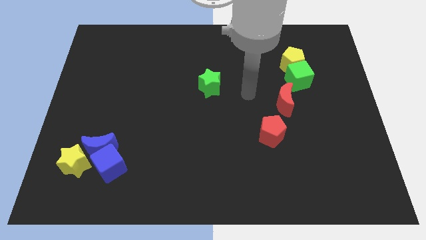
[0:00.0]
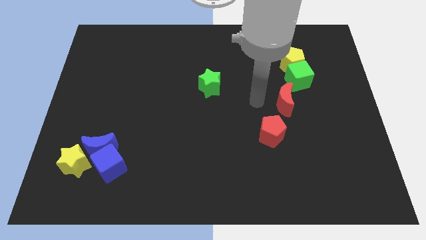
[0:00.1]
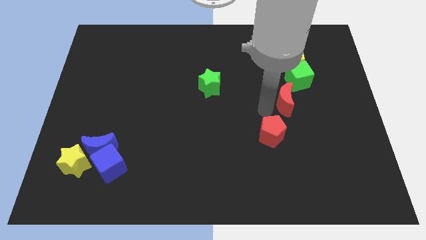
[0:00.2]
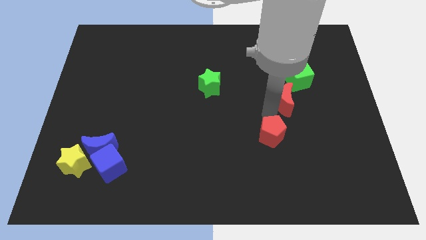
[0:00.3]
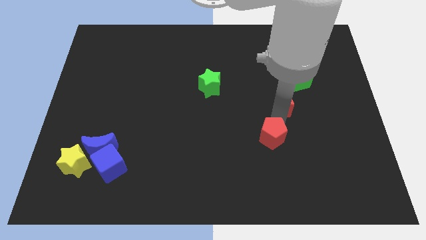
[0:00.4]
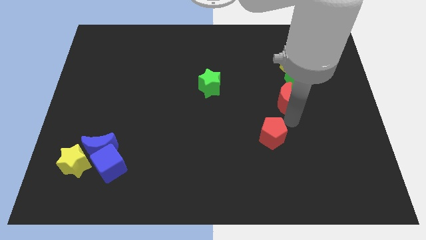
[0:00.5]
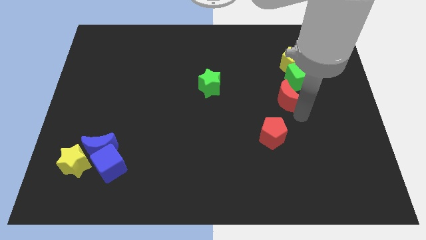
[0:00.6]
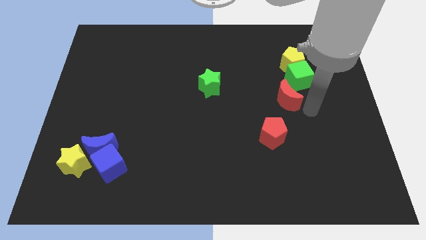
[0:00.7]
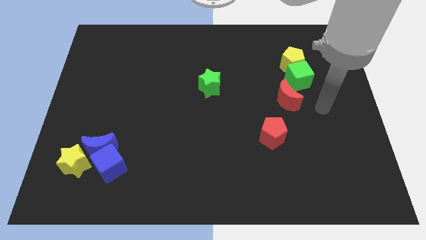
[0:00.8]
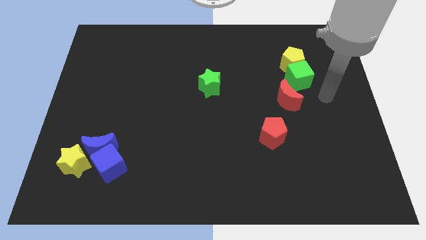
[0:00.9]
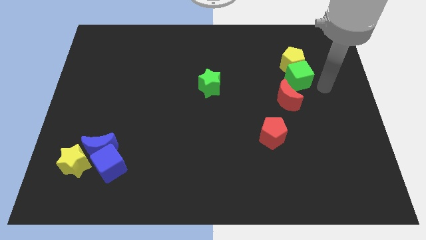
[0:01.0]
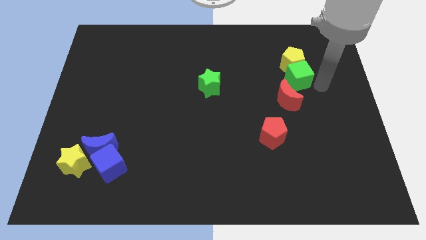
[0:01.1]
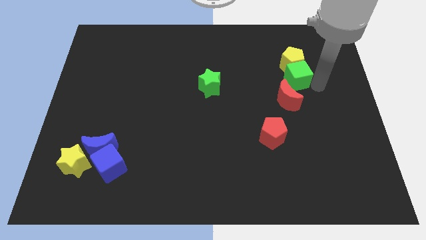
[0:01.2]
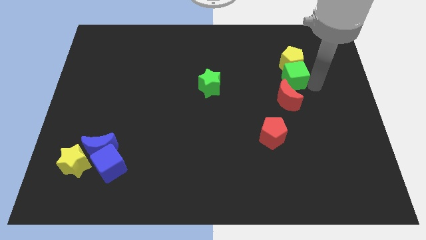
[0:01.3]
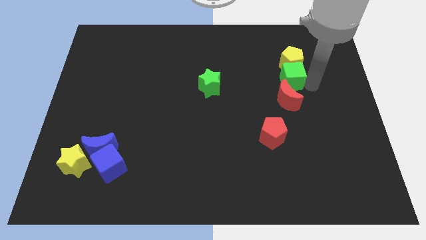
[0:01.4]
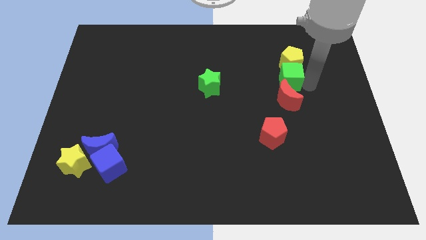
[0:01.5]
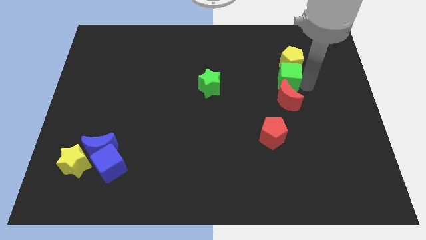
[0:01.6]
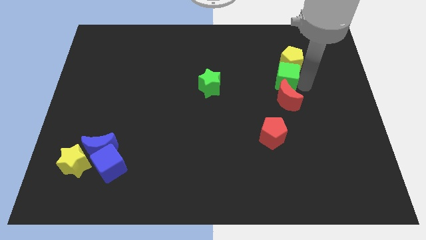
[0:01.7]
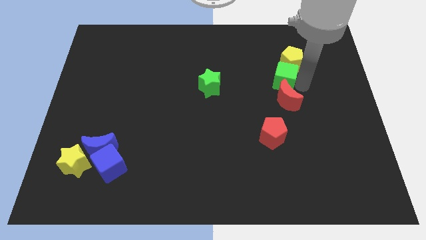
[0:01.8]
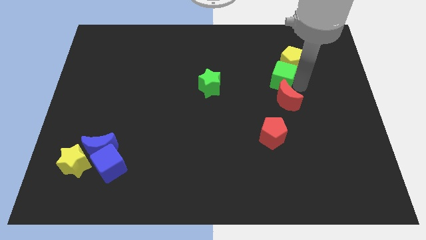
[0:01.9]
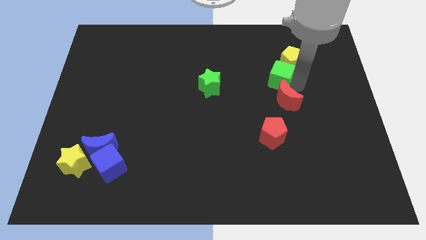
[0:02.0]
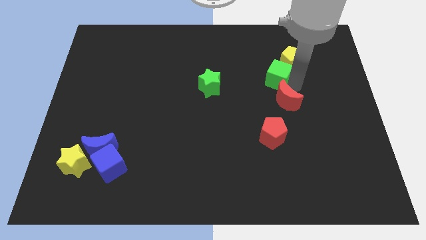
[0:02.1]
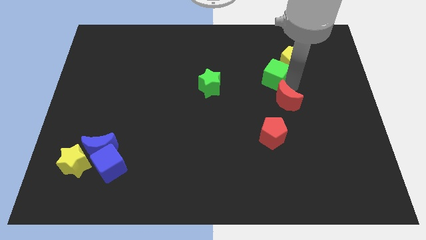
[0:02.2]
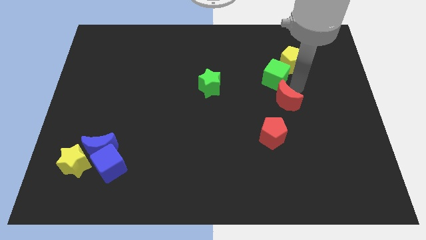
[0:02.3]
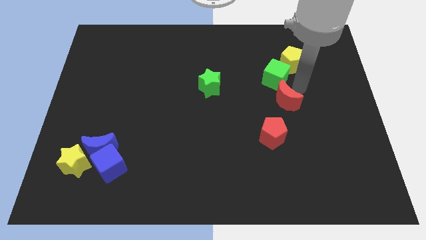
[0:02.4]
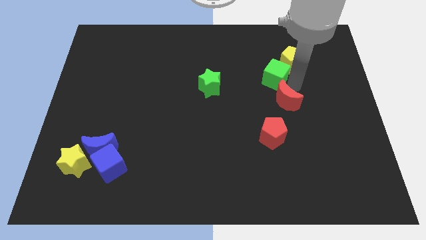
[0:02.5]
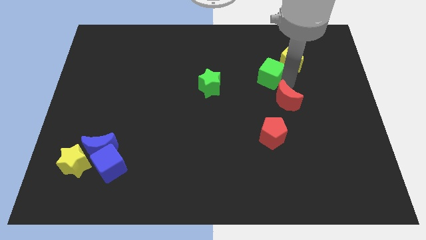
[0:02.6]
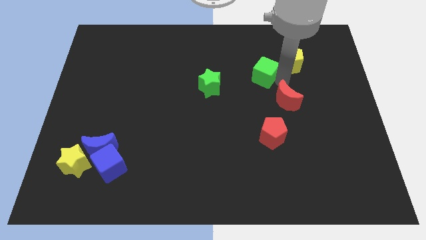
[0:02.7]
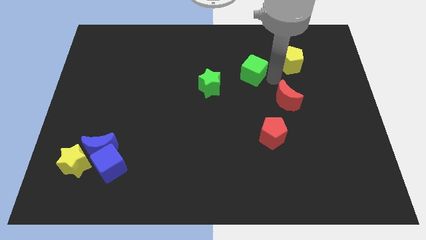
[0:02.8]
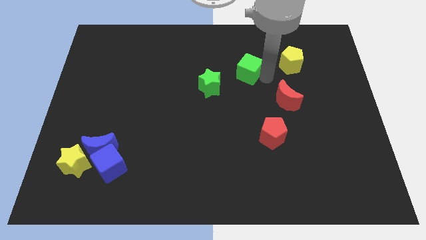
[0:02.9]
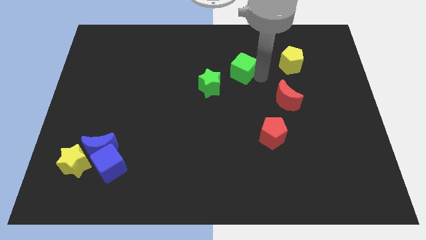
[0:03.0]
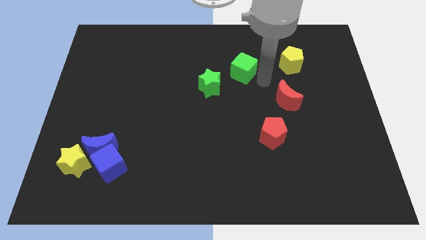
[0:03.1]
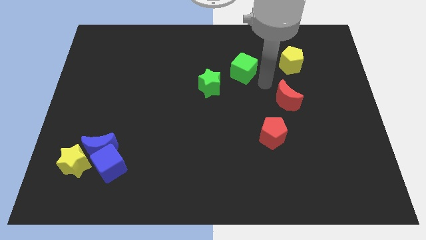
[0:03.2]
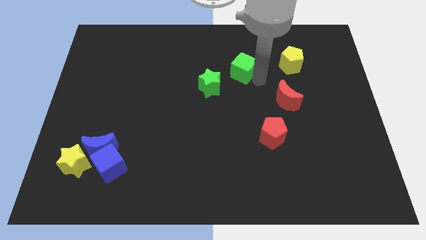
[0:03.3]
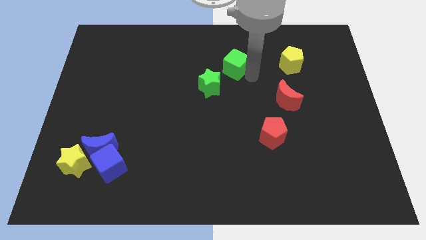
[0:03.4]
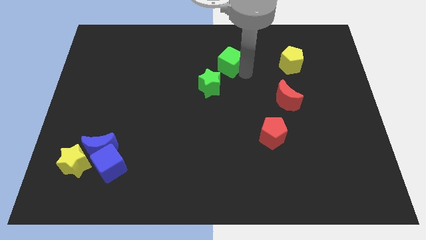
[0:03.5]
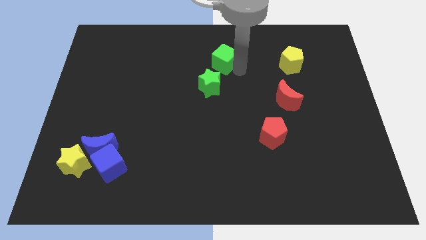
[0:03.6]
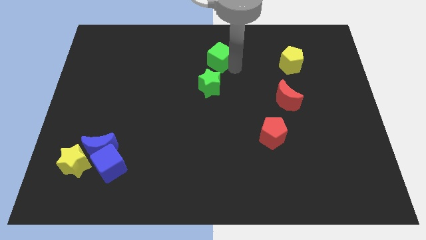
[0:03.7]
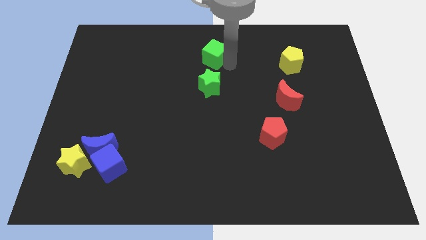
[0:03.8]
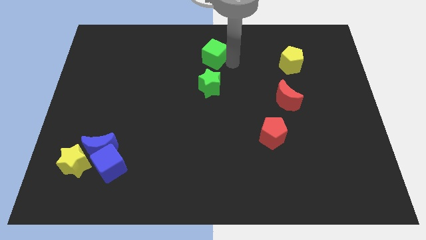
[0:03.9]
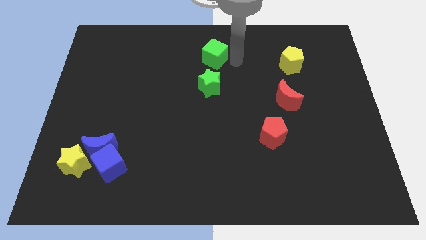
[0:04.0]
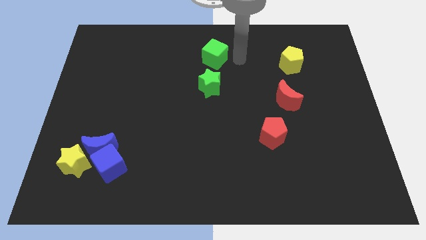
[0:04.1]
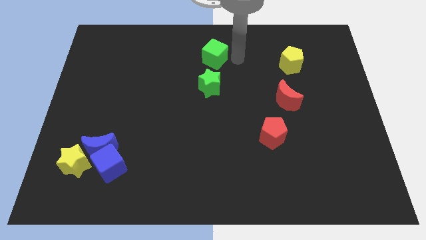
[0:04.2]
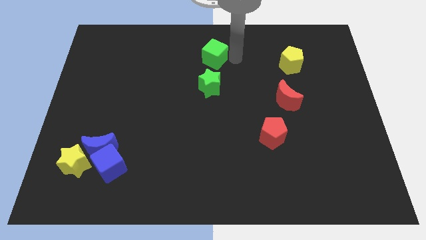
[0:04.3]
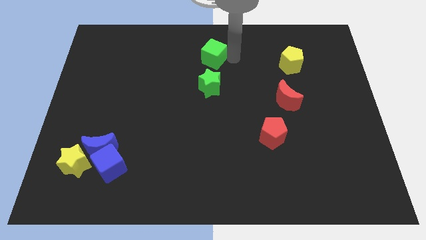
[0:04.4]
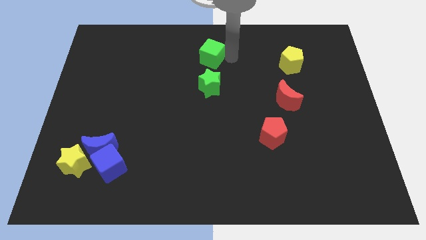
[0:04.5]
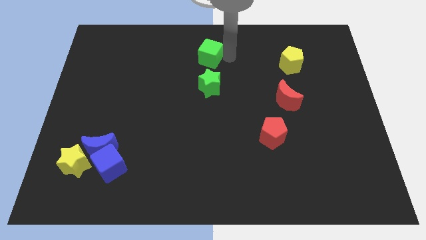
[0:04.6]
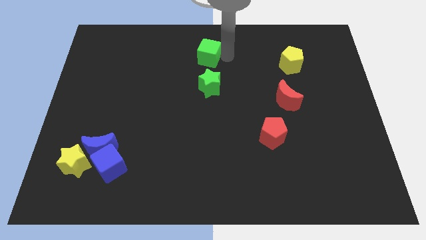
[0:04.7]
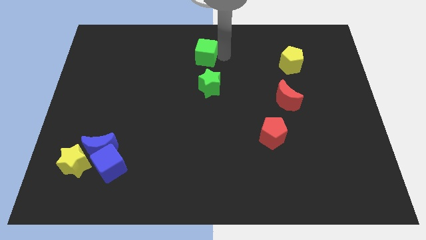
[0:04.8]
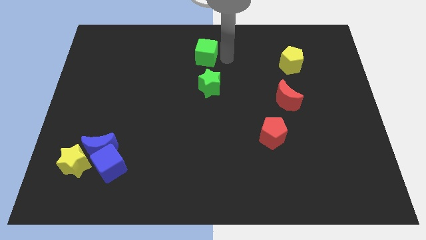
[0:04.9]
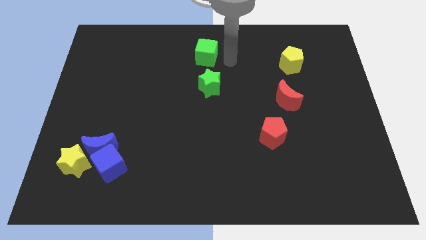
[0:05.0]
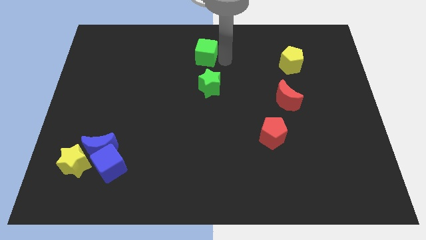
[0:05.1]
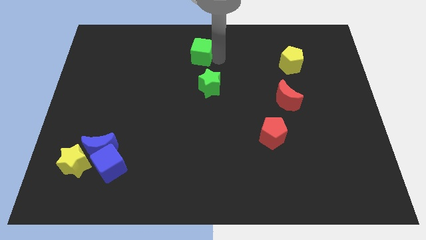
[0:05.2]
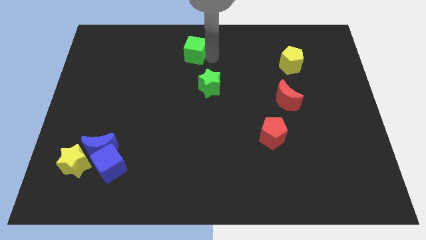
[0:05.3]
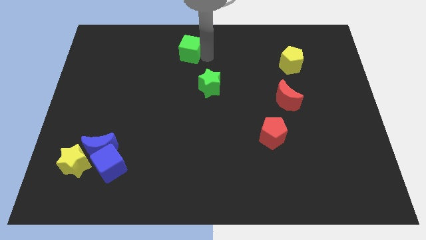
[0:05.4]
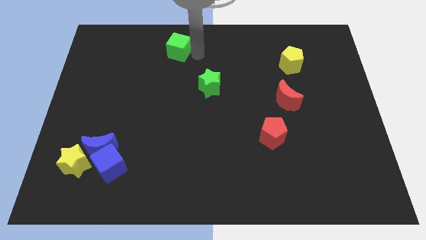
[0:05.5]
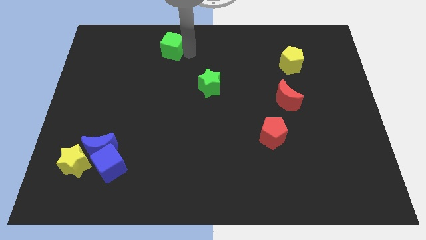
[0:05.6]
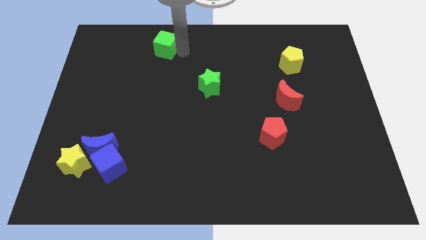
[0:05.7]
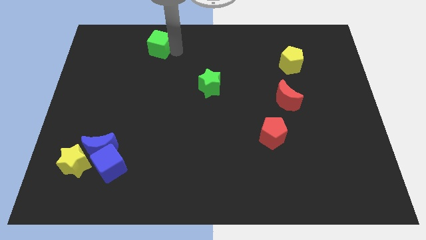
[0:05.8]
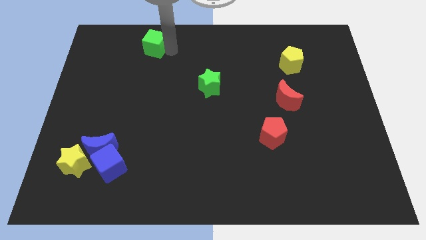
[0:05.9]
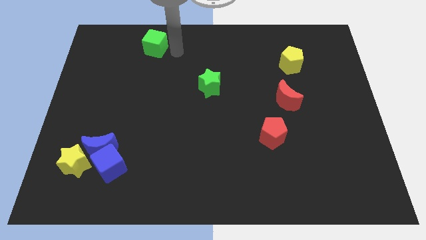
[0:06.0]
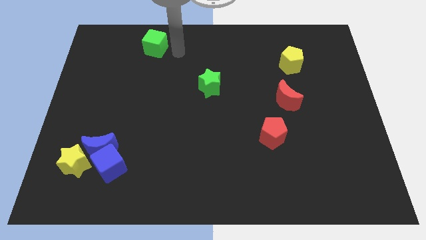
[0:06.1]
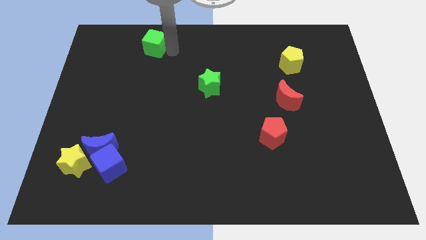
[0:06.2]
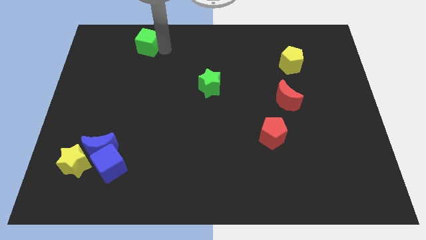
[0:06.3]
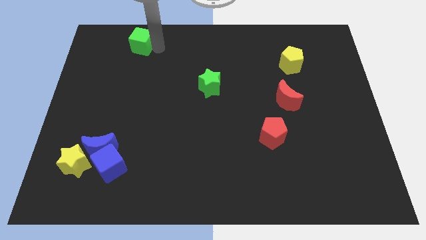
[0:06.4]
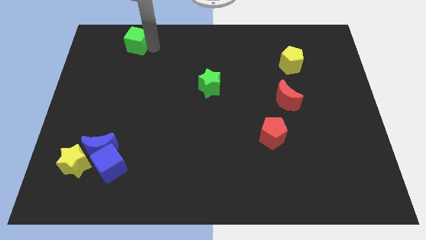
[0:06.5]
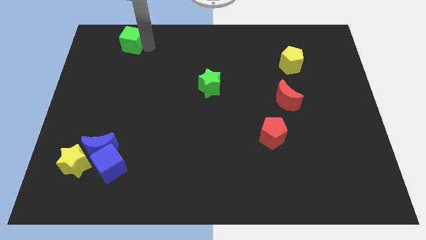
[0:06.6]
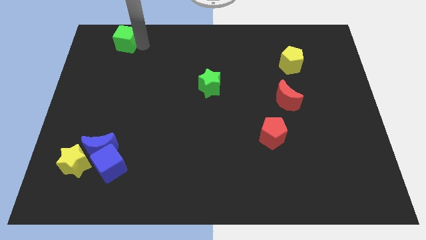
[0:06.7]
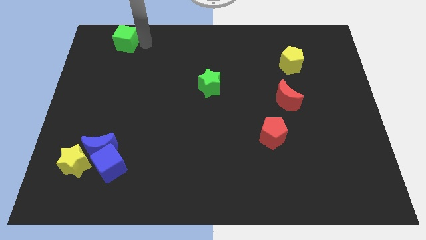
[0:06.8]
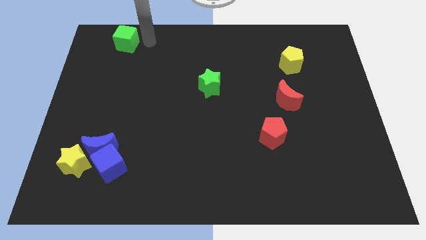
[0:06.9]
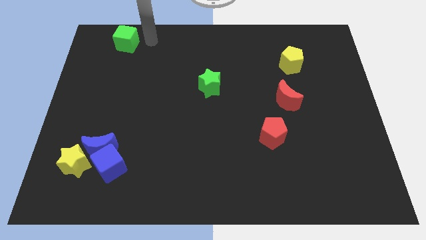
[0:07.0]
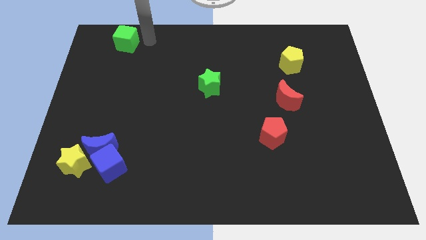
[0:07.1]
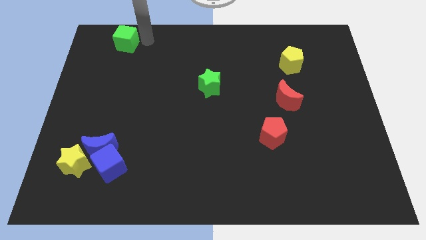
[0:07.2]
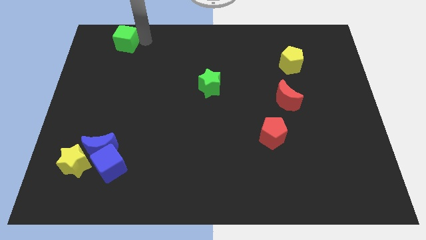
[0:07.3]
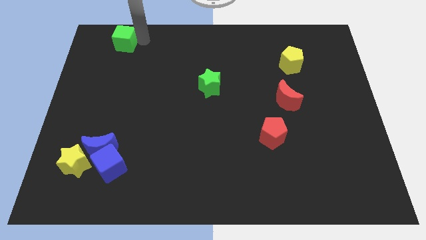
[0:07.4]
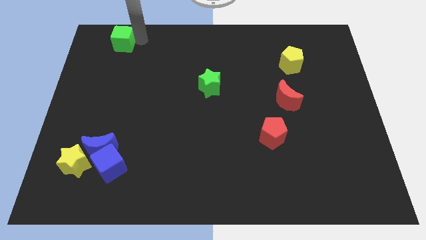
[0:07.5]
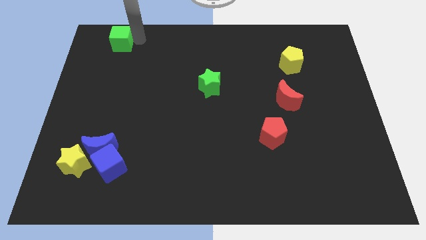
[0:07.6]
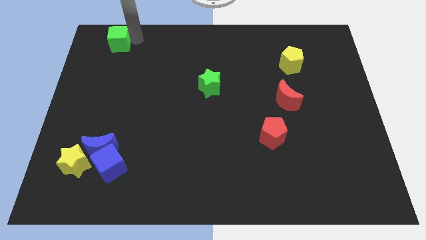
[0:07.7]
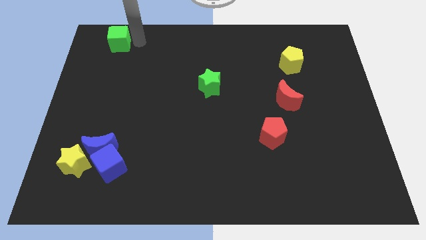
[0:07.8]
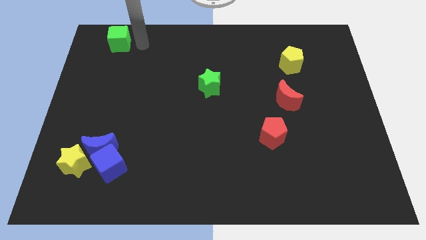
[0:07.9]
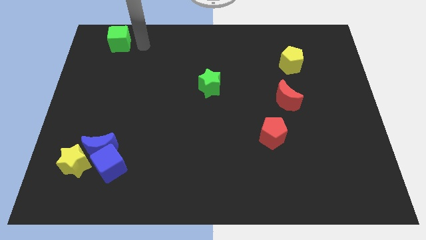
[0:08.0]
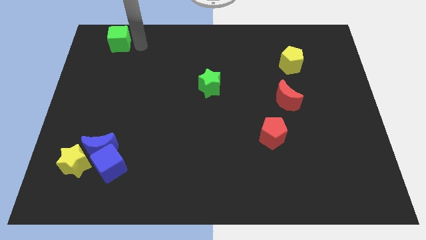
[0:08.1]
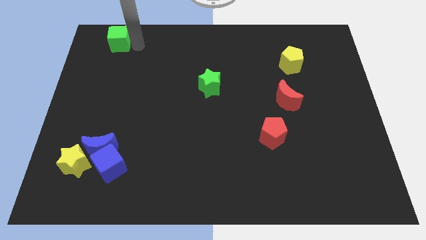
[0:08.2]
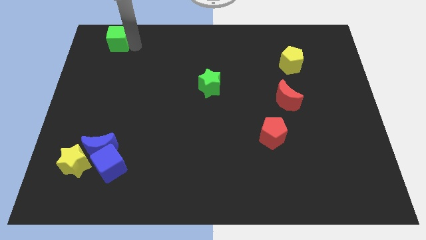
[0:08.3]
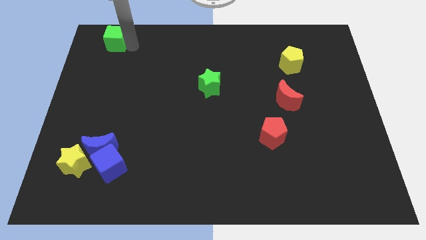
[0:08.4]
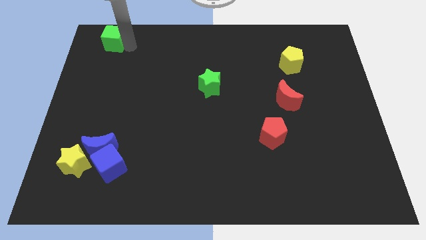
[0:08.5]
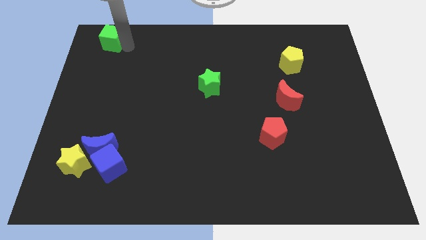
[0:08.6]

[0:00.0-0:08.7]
put the green cube to the top left corner
